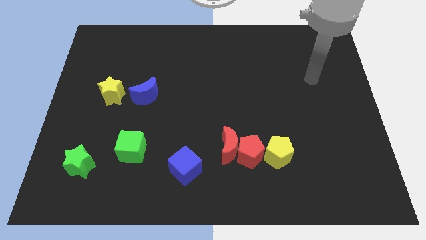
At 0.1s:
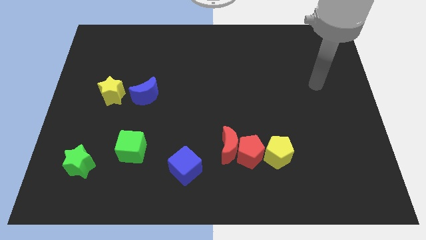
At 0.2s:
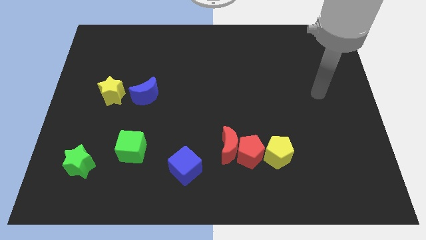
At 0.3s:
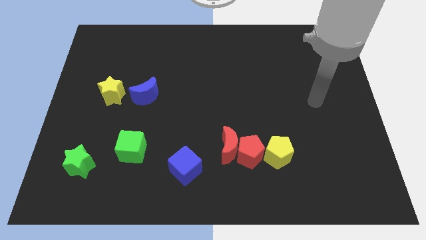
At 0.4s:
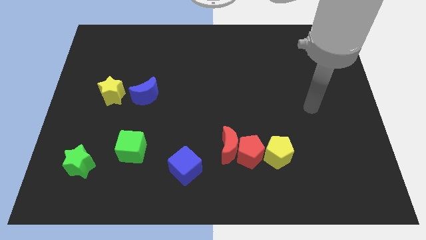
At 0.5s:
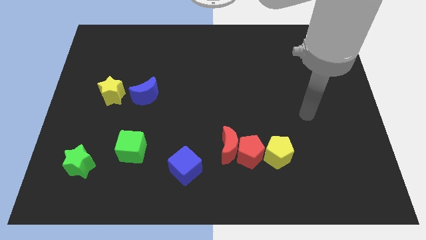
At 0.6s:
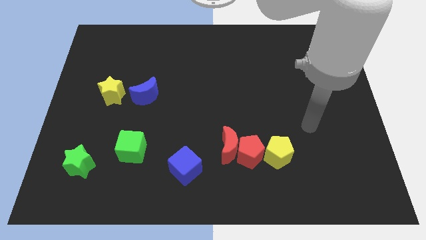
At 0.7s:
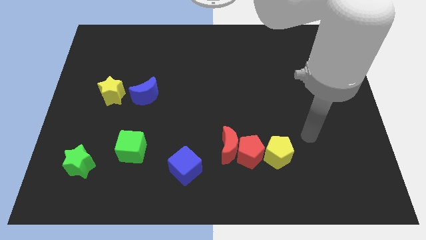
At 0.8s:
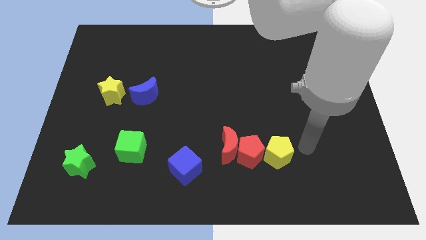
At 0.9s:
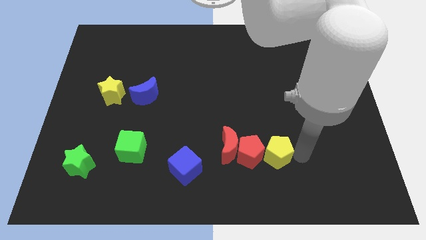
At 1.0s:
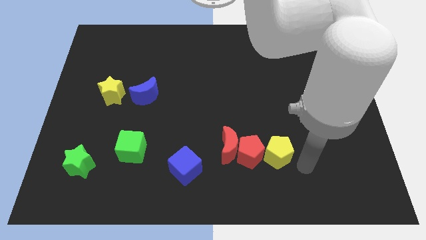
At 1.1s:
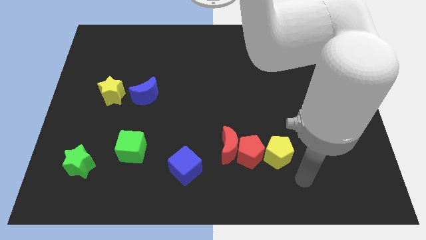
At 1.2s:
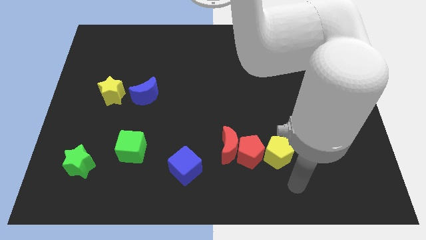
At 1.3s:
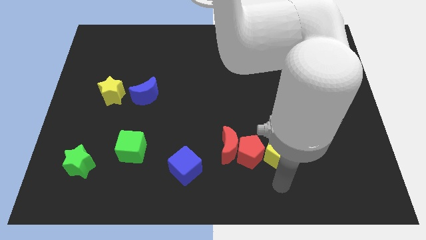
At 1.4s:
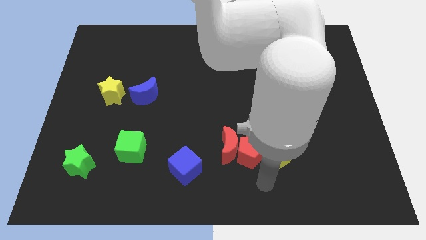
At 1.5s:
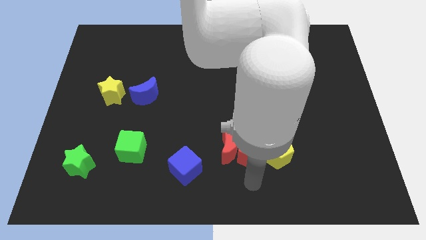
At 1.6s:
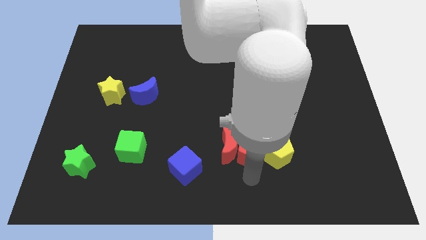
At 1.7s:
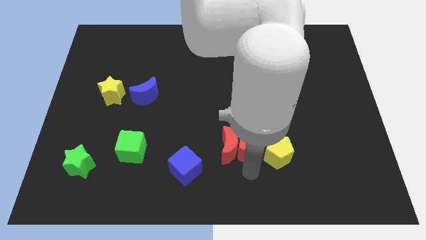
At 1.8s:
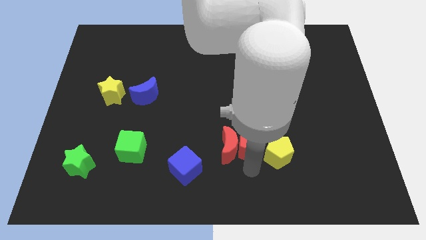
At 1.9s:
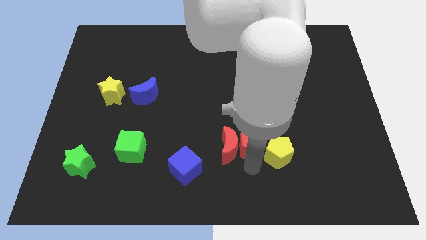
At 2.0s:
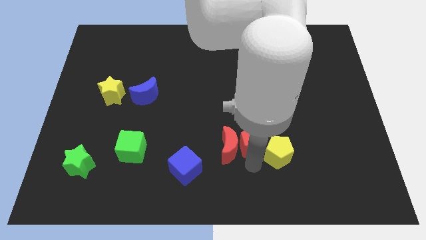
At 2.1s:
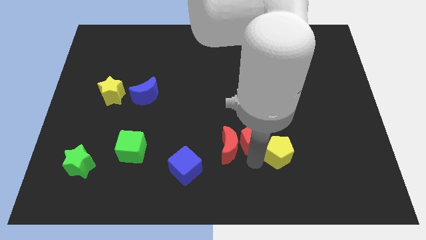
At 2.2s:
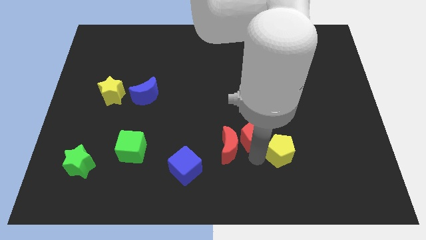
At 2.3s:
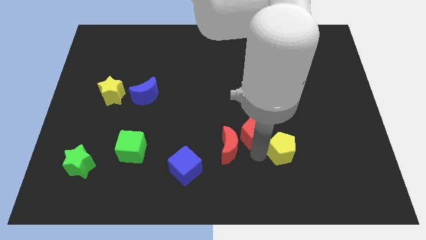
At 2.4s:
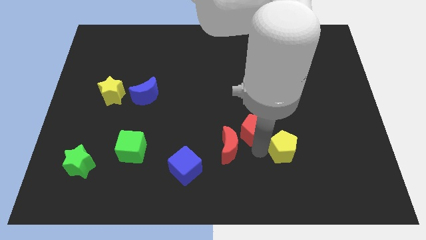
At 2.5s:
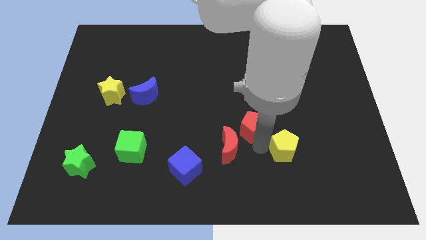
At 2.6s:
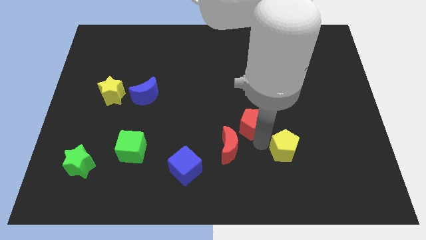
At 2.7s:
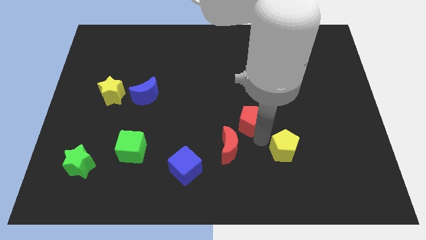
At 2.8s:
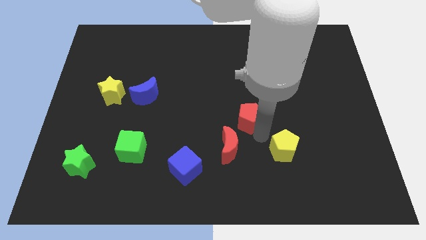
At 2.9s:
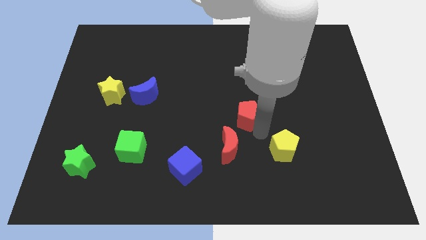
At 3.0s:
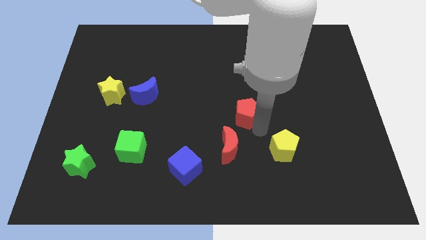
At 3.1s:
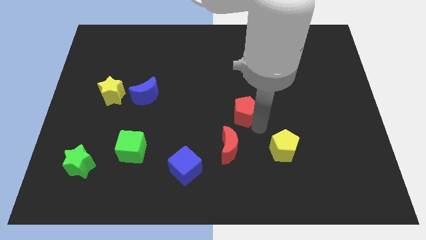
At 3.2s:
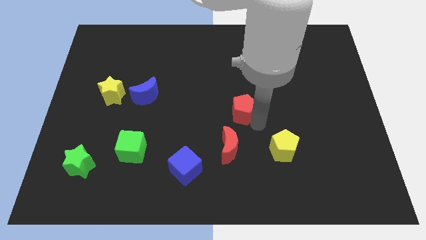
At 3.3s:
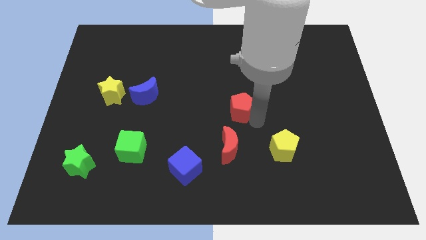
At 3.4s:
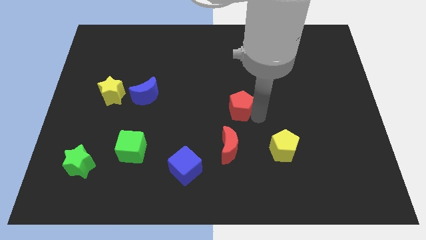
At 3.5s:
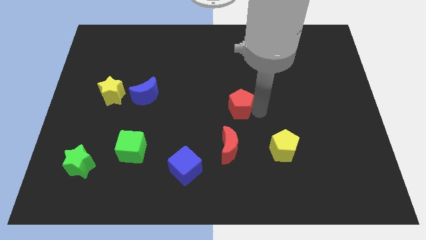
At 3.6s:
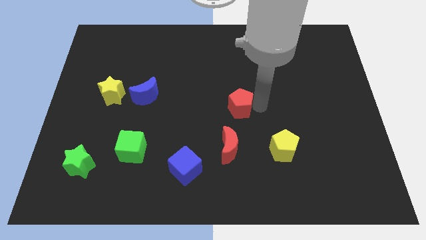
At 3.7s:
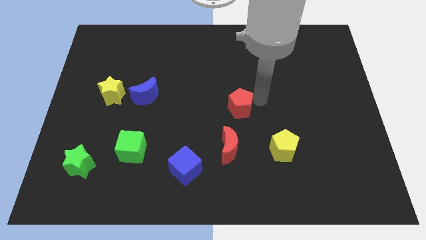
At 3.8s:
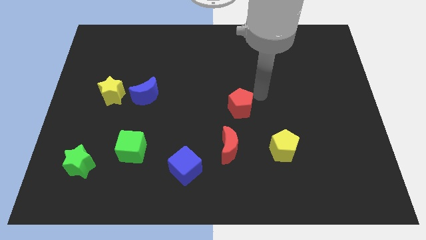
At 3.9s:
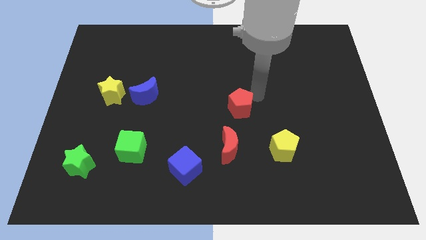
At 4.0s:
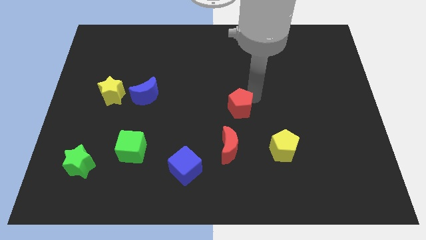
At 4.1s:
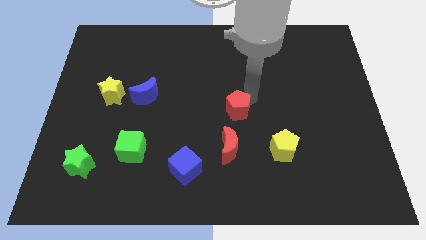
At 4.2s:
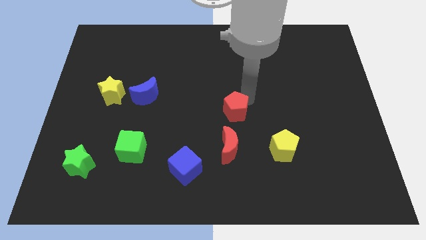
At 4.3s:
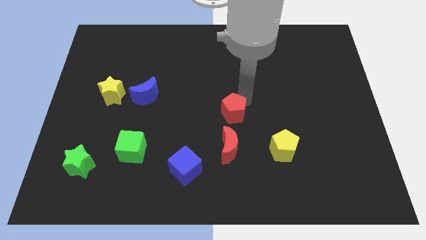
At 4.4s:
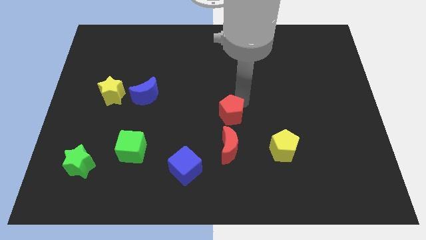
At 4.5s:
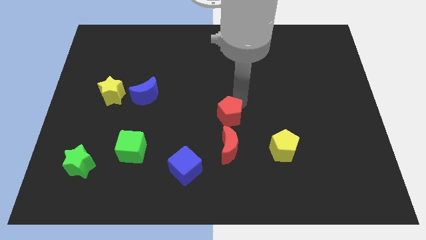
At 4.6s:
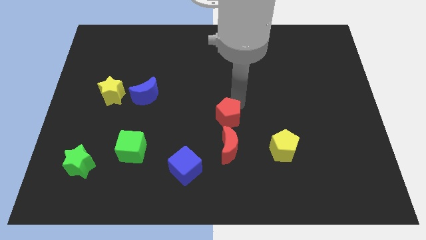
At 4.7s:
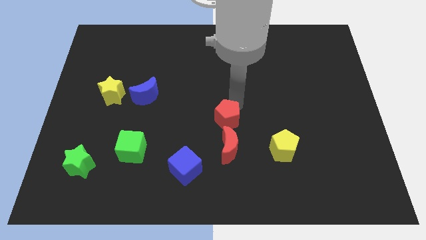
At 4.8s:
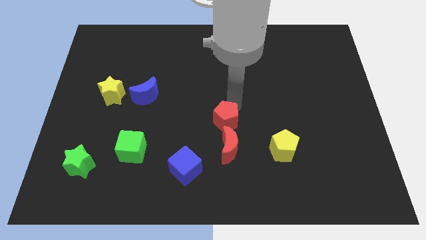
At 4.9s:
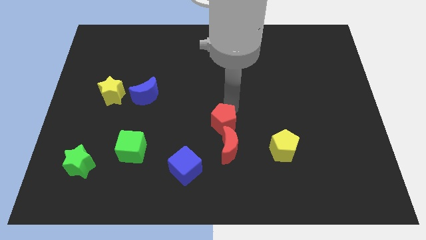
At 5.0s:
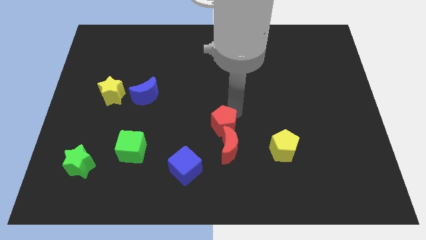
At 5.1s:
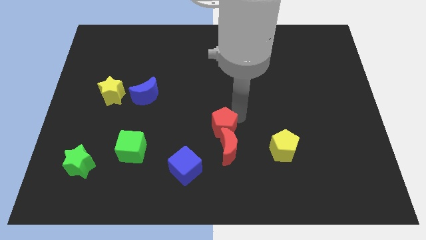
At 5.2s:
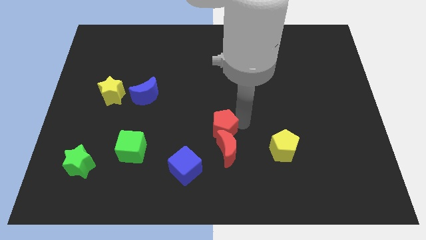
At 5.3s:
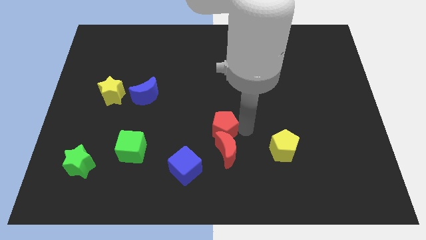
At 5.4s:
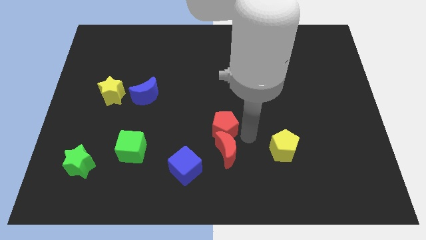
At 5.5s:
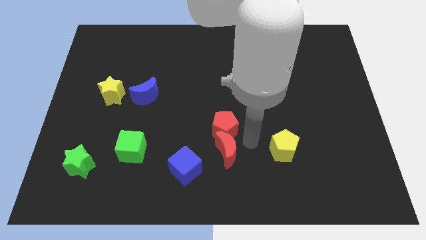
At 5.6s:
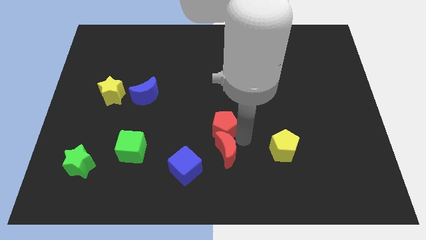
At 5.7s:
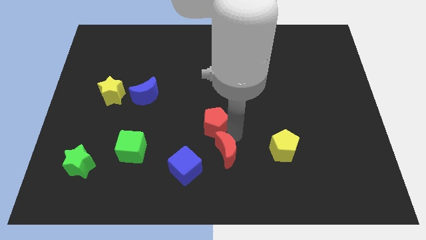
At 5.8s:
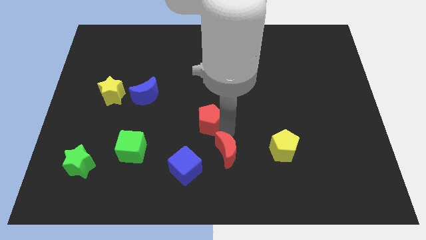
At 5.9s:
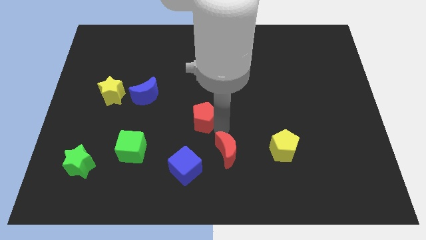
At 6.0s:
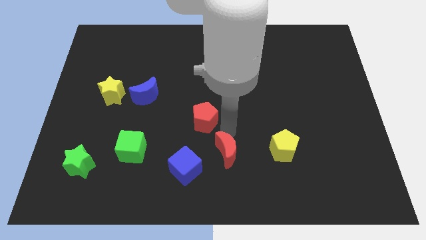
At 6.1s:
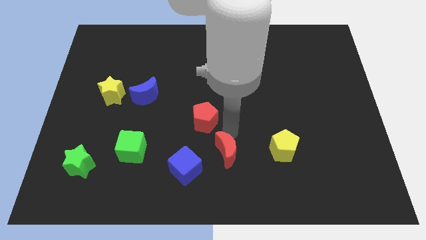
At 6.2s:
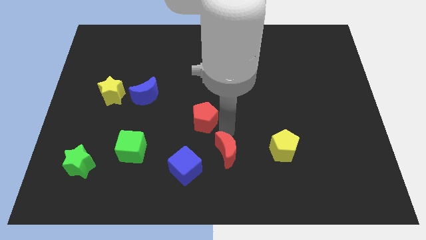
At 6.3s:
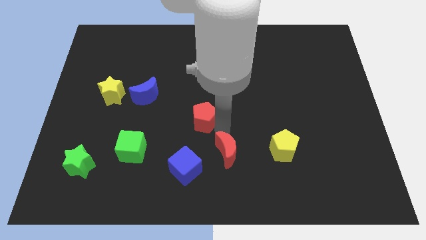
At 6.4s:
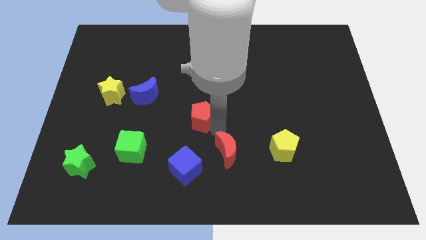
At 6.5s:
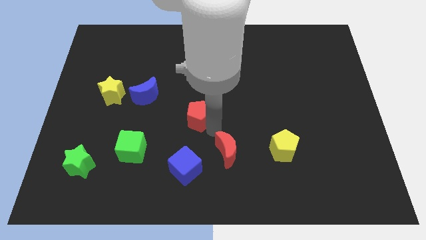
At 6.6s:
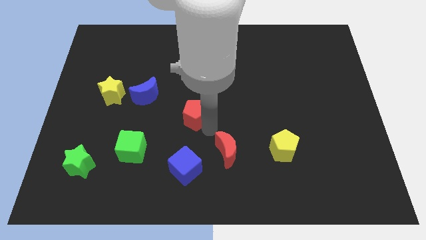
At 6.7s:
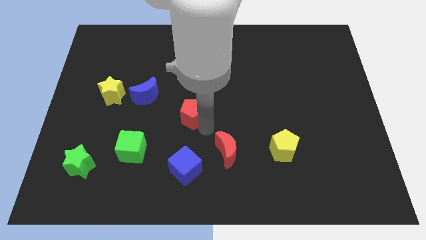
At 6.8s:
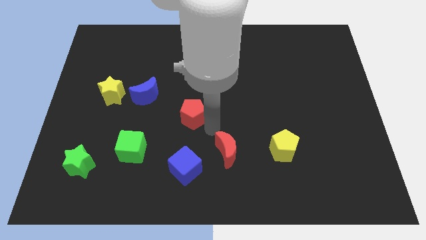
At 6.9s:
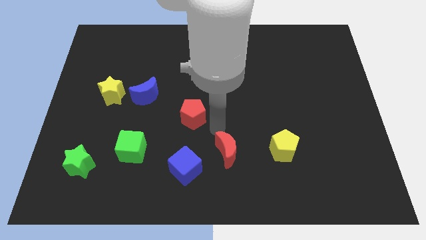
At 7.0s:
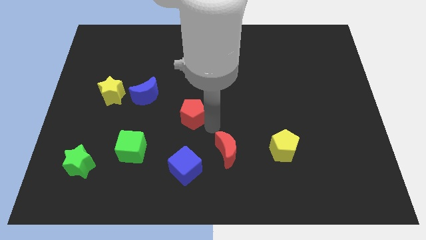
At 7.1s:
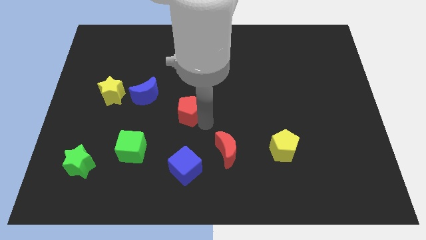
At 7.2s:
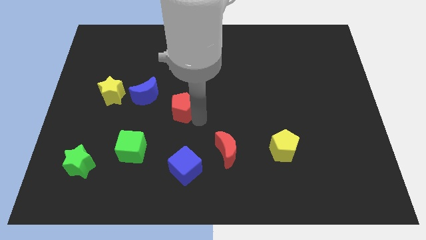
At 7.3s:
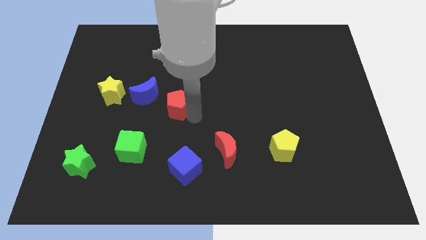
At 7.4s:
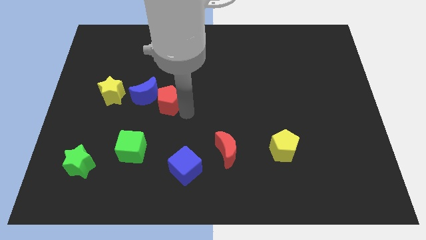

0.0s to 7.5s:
slide the red pentagon to the blue moon
